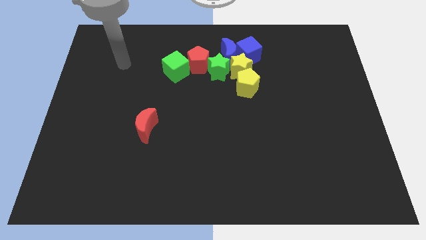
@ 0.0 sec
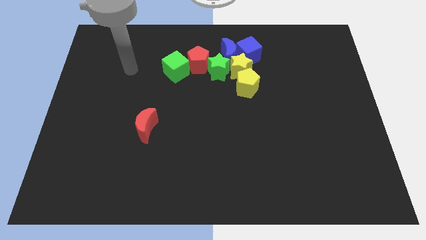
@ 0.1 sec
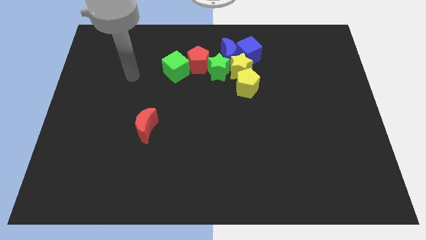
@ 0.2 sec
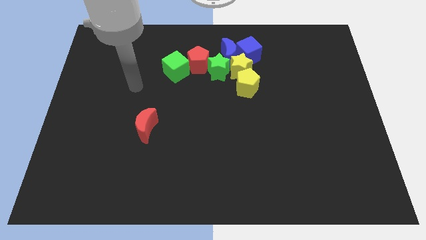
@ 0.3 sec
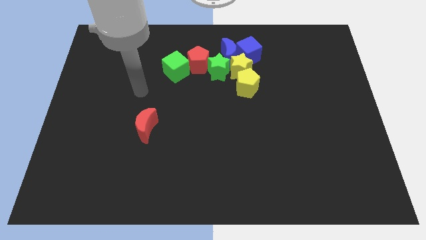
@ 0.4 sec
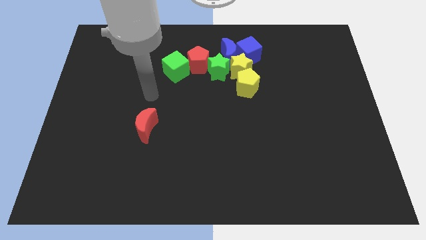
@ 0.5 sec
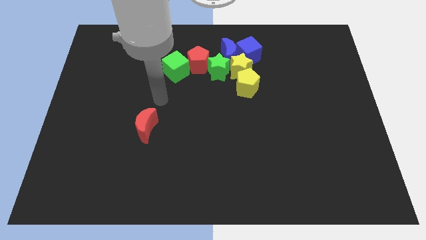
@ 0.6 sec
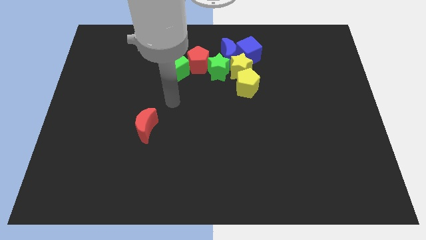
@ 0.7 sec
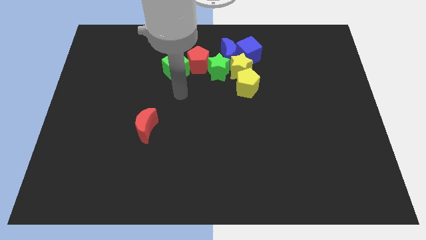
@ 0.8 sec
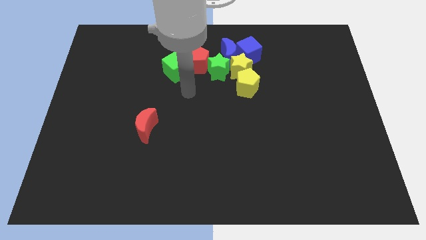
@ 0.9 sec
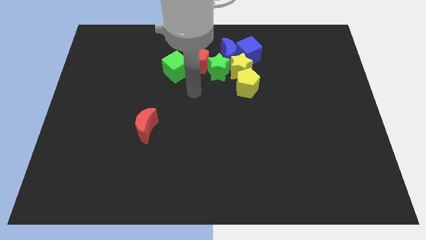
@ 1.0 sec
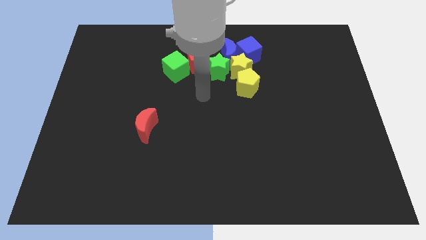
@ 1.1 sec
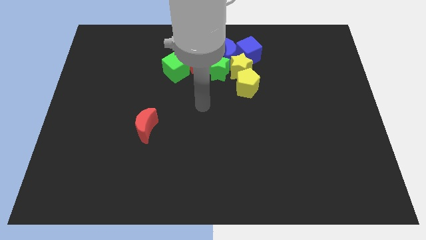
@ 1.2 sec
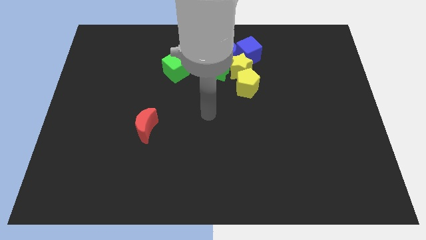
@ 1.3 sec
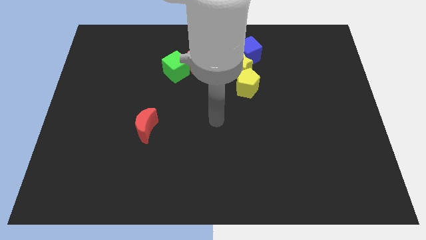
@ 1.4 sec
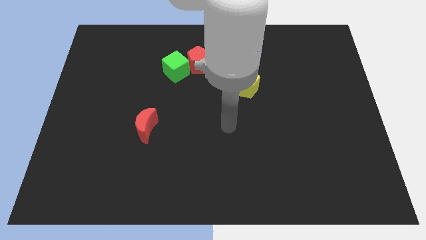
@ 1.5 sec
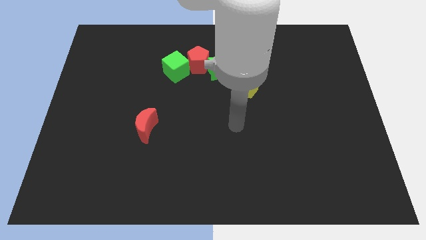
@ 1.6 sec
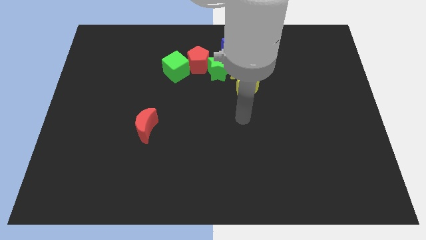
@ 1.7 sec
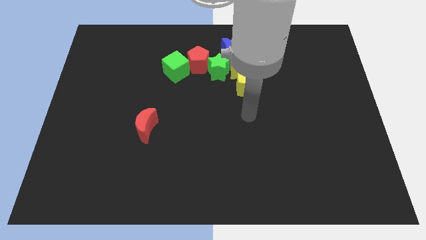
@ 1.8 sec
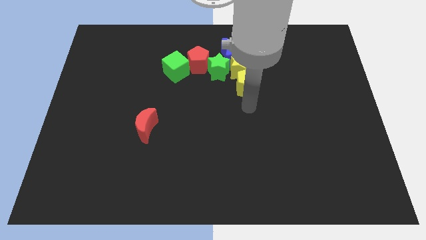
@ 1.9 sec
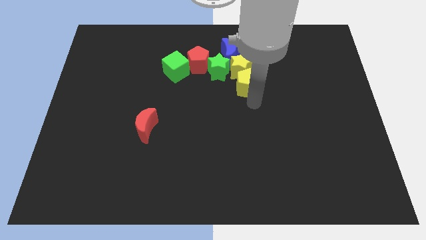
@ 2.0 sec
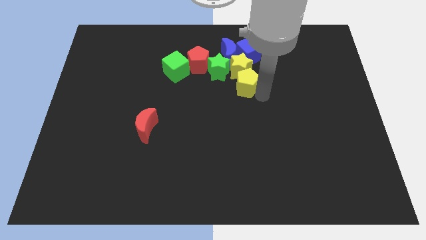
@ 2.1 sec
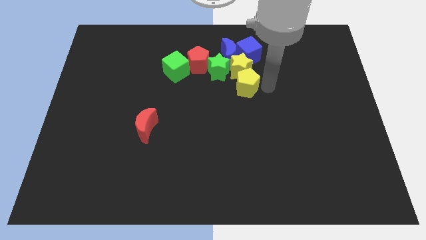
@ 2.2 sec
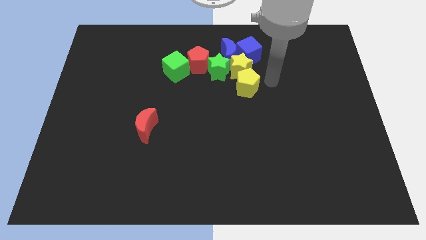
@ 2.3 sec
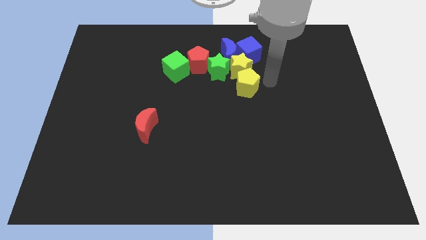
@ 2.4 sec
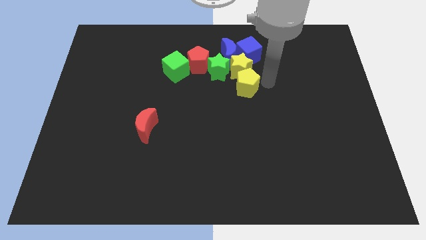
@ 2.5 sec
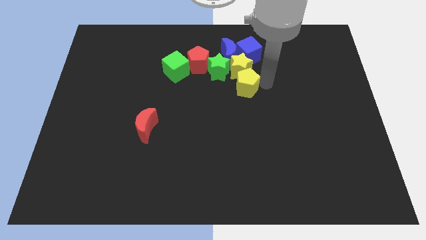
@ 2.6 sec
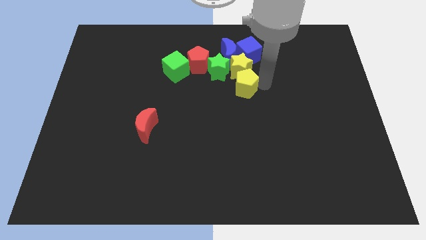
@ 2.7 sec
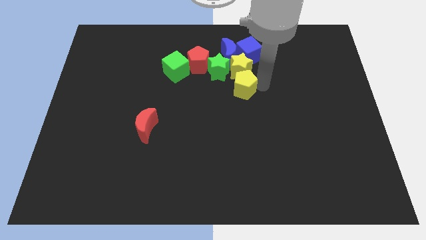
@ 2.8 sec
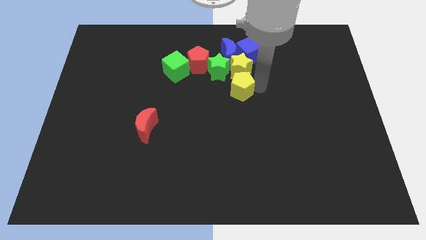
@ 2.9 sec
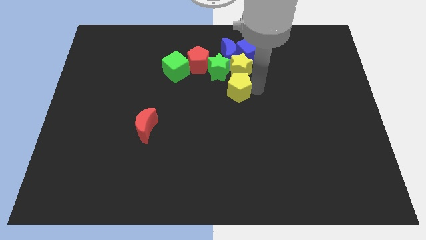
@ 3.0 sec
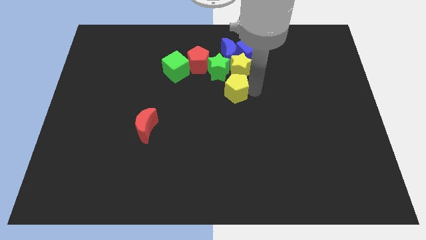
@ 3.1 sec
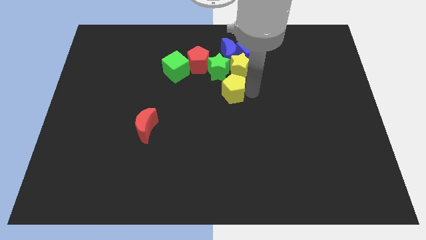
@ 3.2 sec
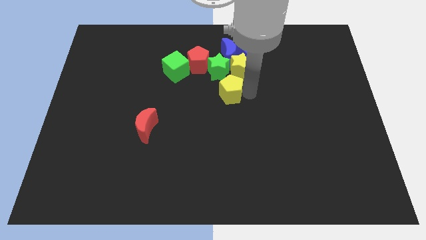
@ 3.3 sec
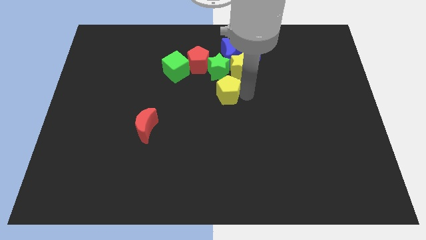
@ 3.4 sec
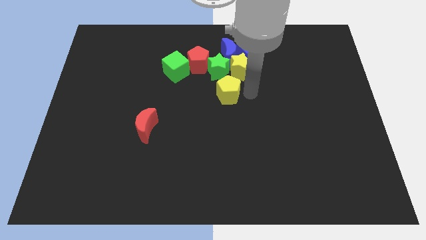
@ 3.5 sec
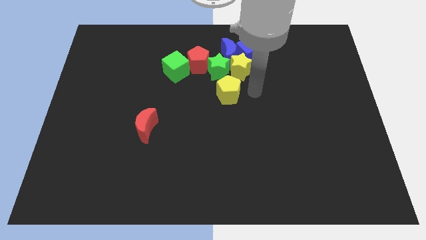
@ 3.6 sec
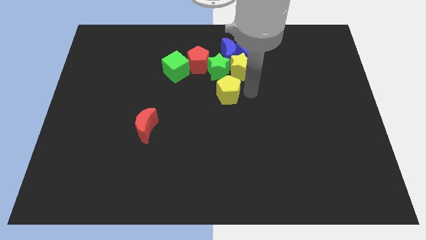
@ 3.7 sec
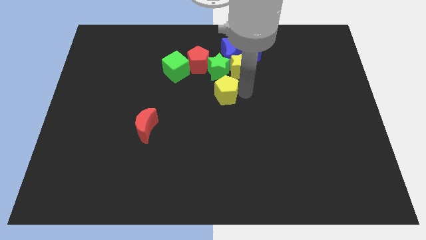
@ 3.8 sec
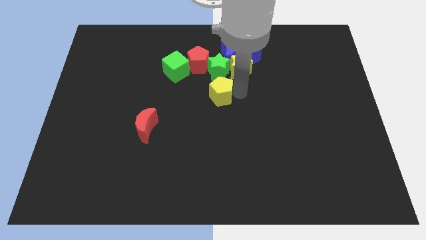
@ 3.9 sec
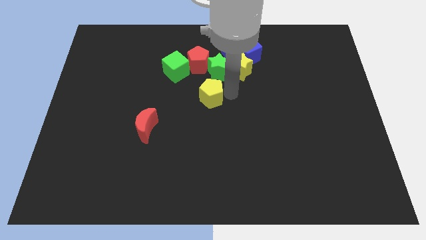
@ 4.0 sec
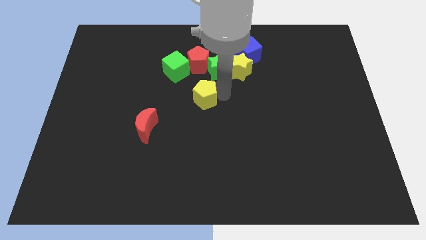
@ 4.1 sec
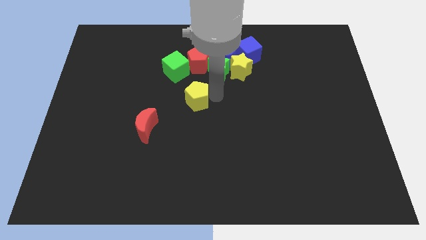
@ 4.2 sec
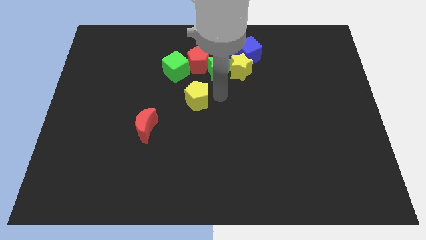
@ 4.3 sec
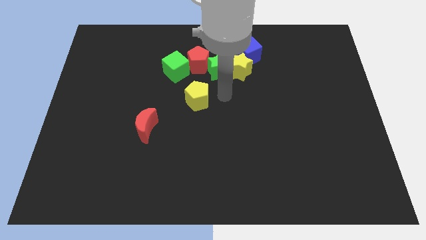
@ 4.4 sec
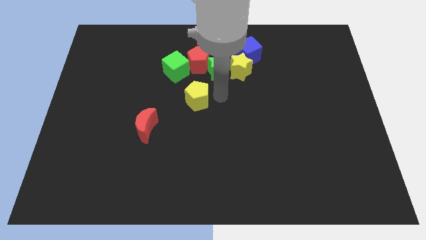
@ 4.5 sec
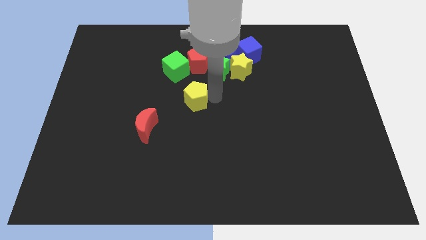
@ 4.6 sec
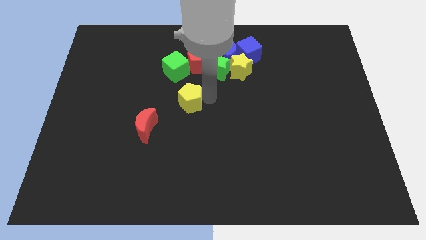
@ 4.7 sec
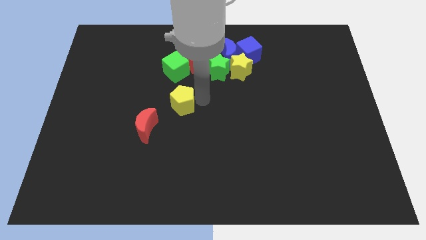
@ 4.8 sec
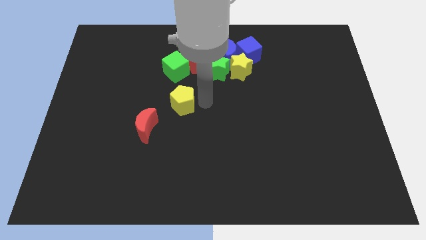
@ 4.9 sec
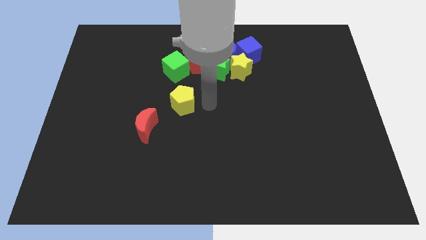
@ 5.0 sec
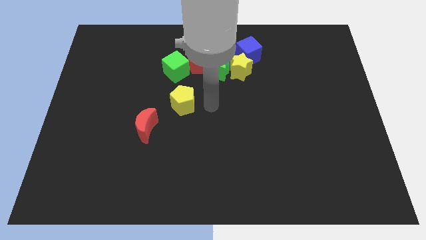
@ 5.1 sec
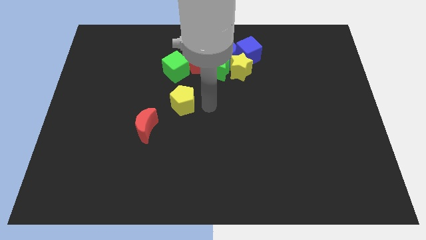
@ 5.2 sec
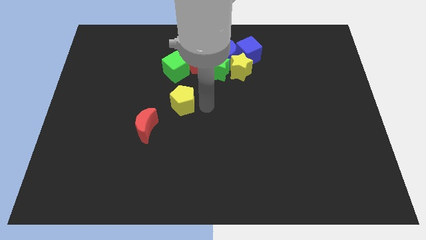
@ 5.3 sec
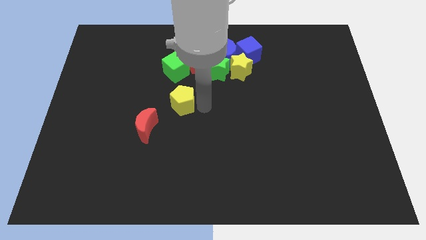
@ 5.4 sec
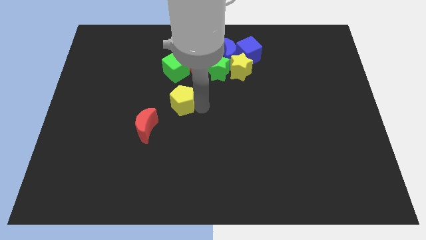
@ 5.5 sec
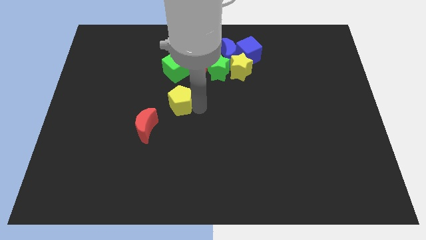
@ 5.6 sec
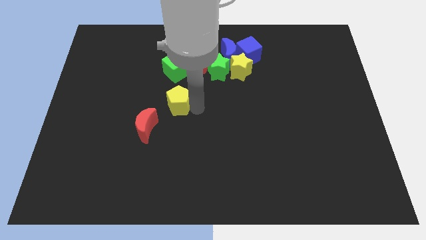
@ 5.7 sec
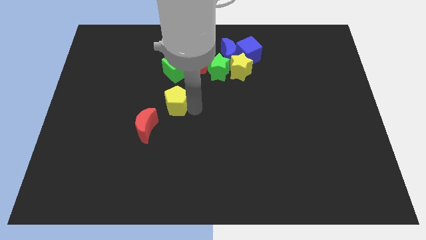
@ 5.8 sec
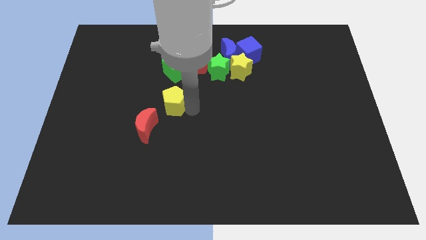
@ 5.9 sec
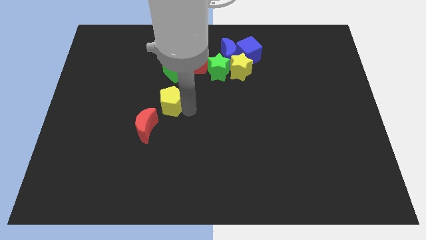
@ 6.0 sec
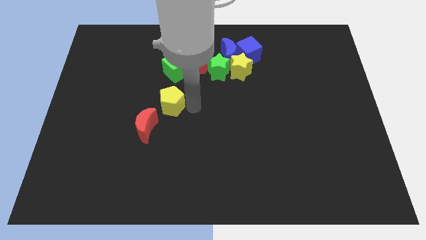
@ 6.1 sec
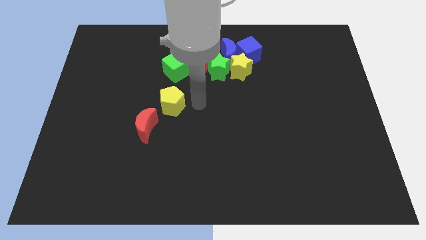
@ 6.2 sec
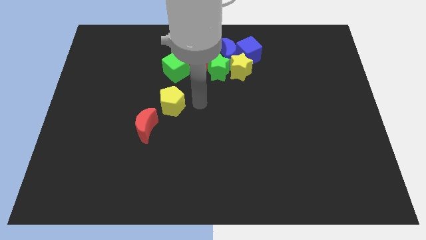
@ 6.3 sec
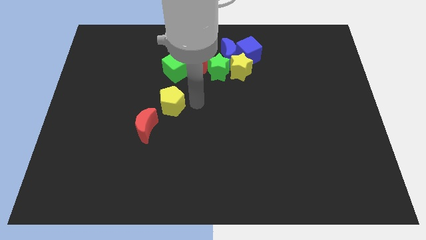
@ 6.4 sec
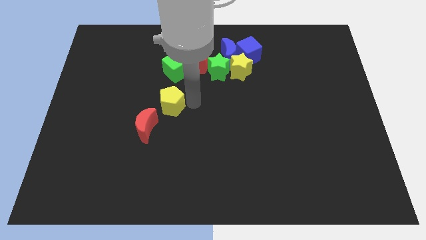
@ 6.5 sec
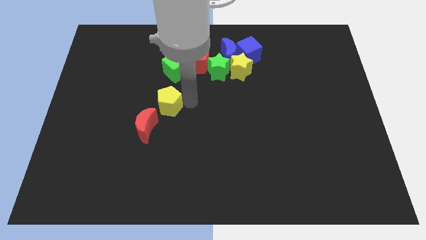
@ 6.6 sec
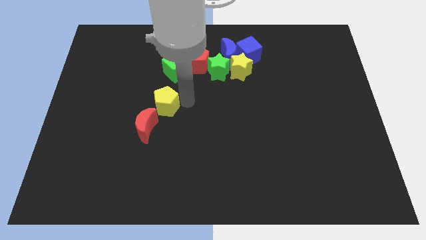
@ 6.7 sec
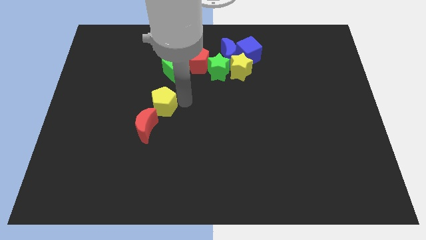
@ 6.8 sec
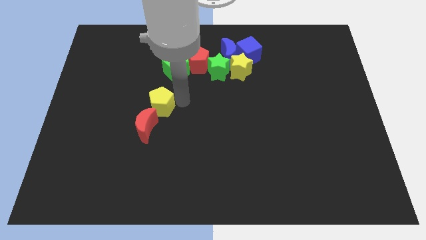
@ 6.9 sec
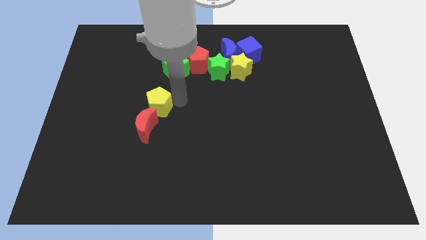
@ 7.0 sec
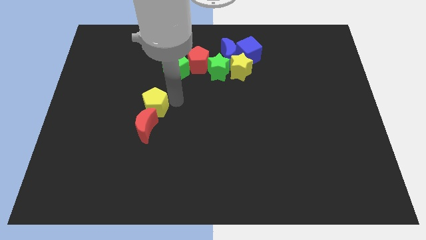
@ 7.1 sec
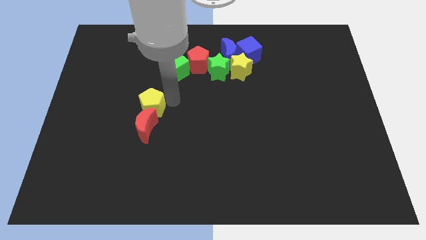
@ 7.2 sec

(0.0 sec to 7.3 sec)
put the yellow pentagon to the top left side of the red moon
